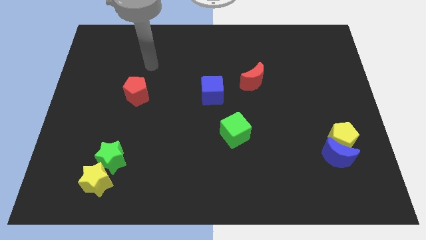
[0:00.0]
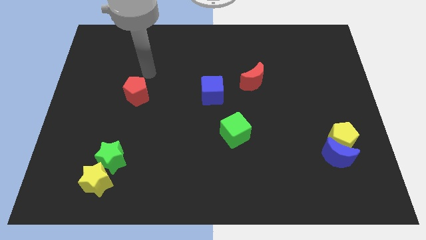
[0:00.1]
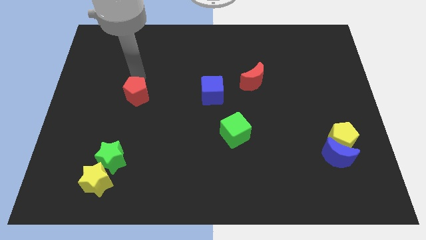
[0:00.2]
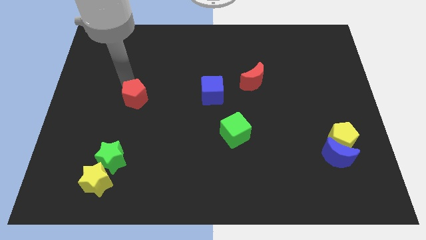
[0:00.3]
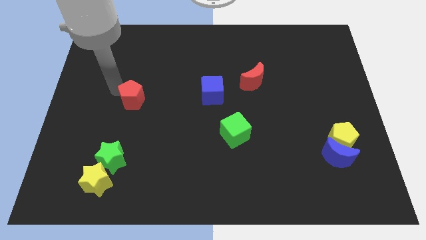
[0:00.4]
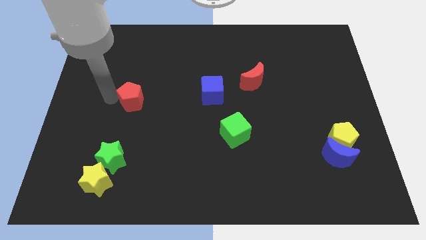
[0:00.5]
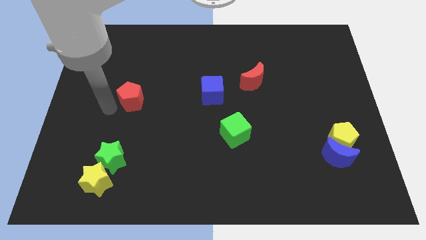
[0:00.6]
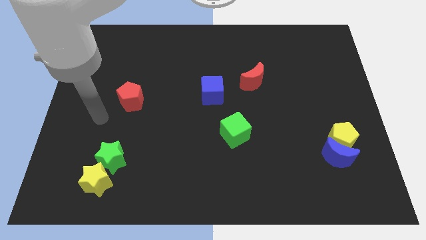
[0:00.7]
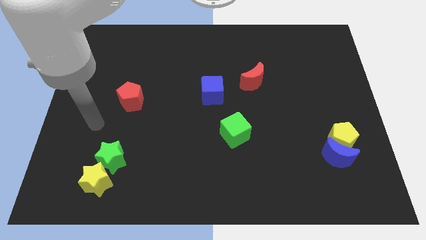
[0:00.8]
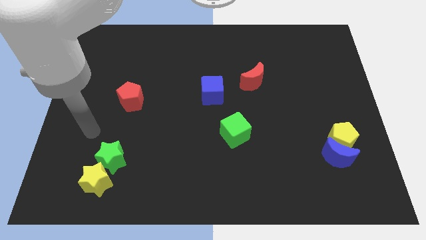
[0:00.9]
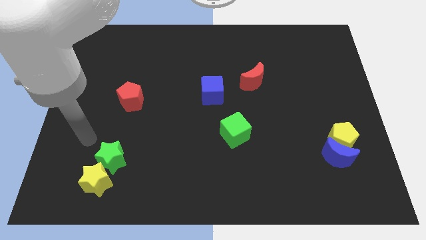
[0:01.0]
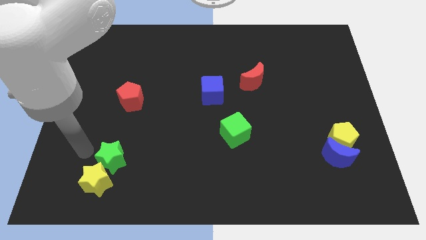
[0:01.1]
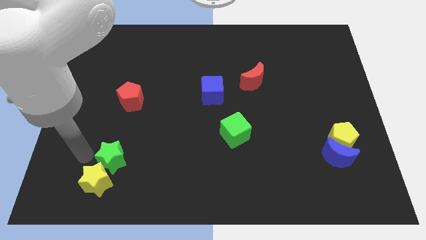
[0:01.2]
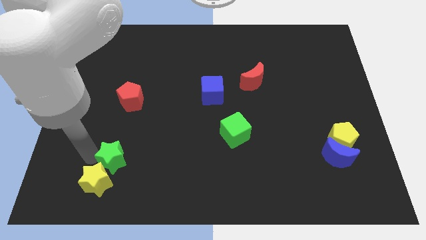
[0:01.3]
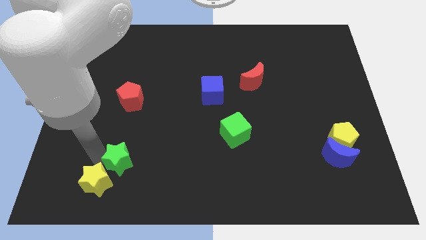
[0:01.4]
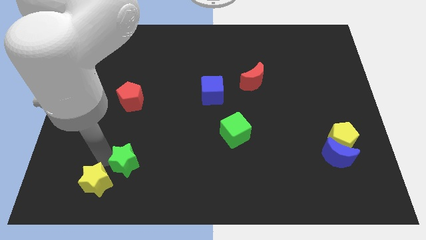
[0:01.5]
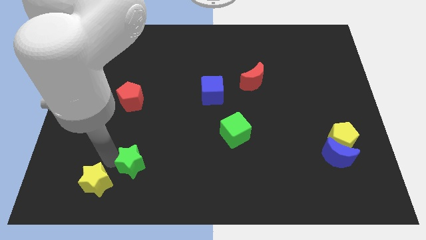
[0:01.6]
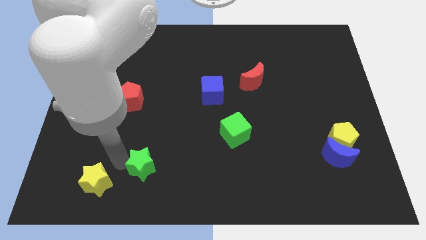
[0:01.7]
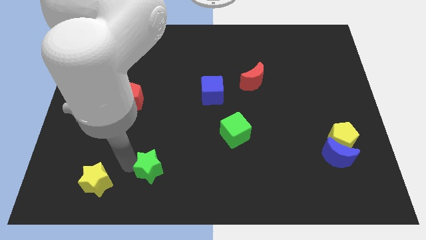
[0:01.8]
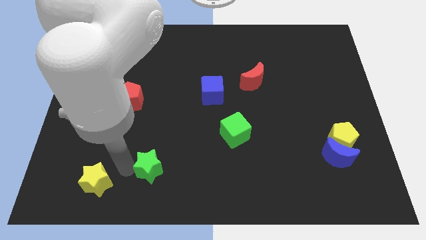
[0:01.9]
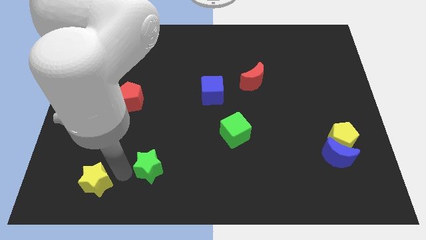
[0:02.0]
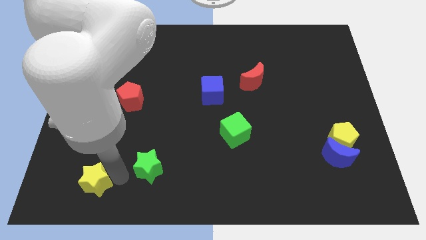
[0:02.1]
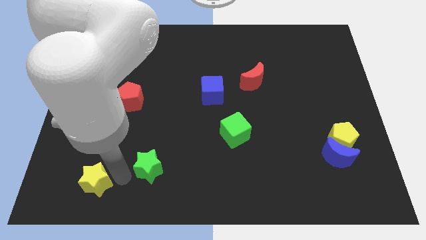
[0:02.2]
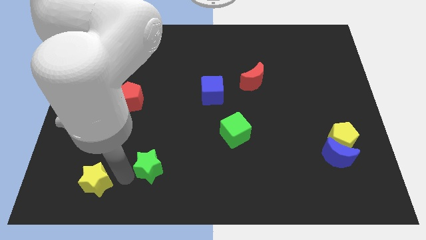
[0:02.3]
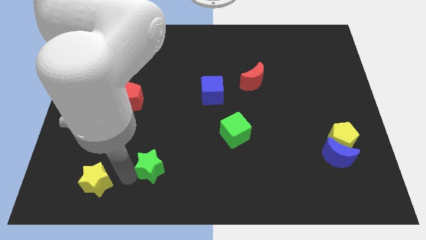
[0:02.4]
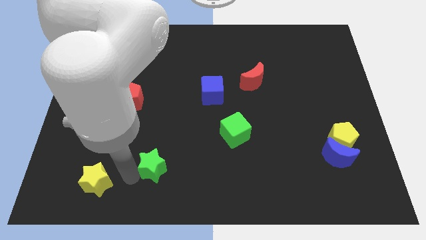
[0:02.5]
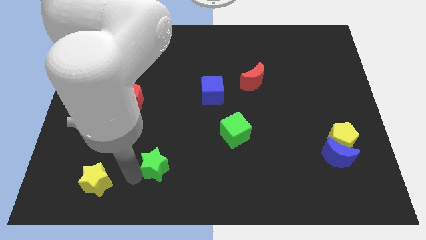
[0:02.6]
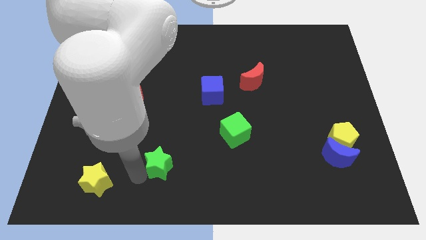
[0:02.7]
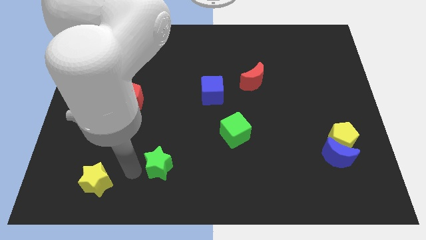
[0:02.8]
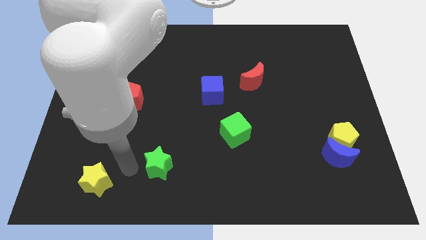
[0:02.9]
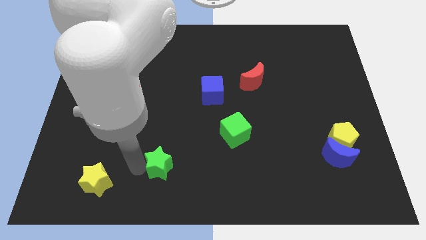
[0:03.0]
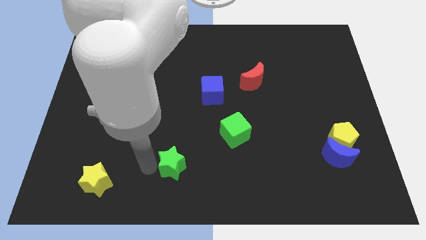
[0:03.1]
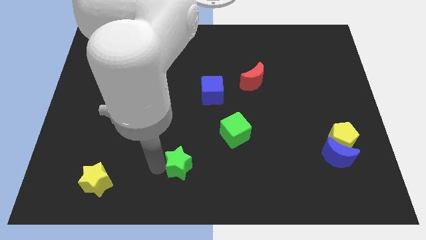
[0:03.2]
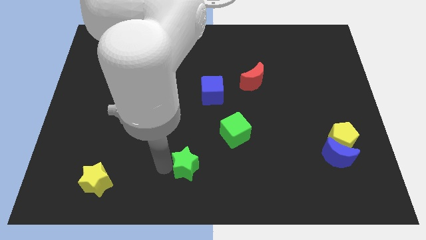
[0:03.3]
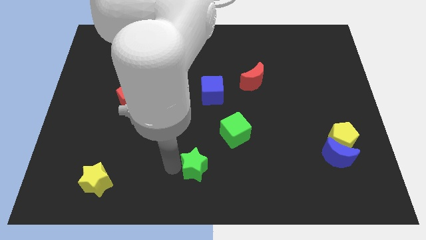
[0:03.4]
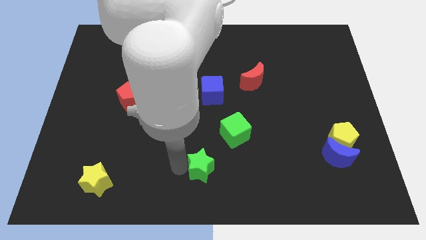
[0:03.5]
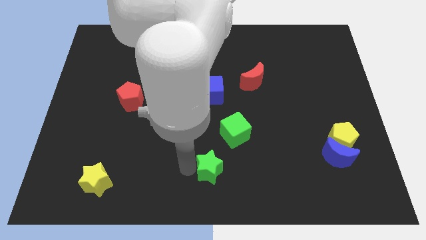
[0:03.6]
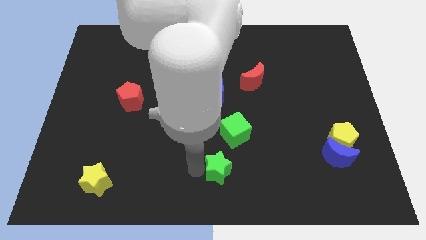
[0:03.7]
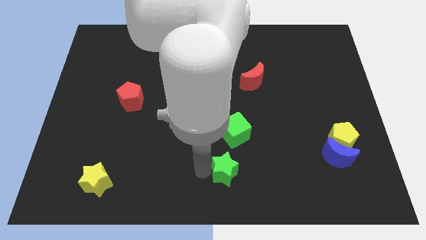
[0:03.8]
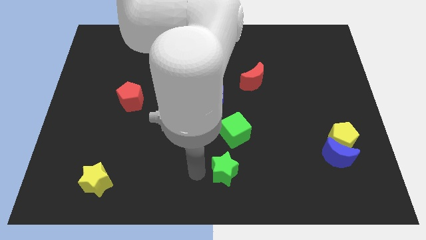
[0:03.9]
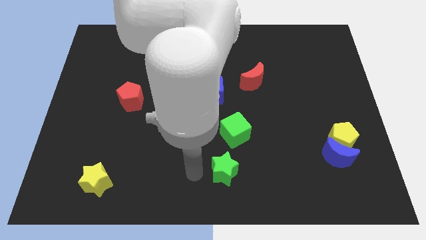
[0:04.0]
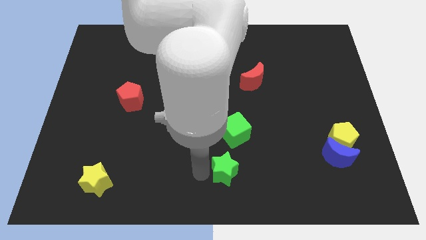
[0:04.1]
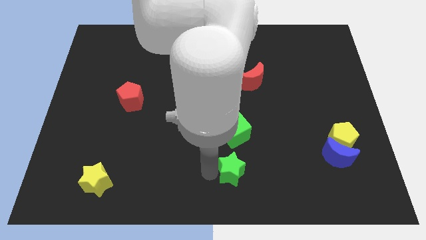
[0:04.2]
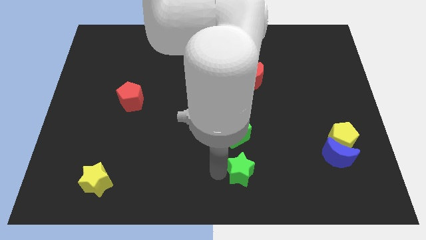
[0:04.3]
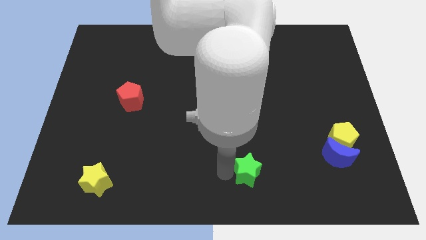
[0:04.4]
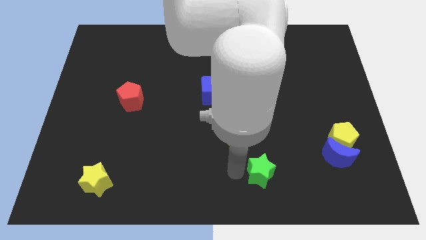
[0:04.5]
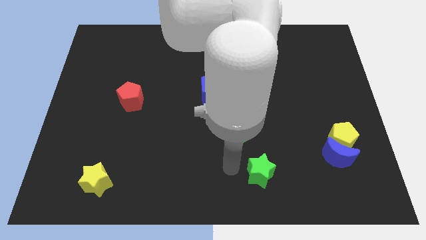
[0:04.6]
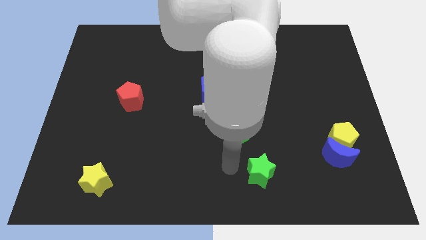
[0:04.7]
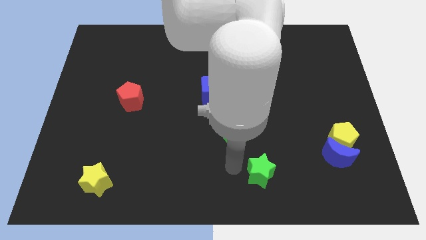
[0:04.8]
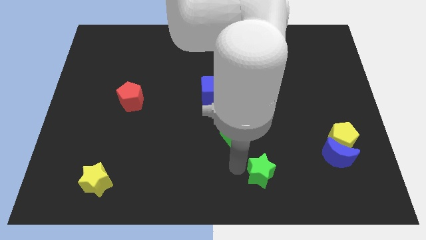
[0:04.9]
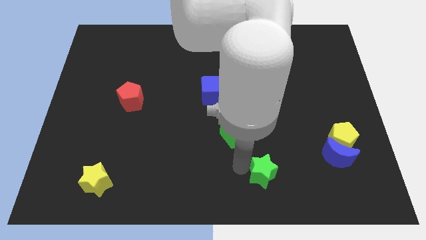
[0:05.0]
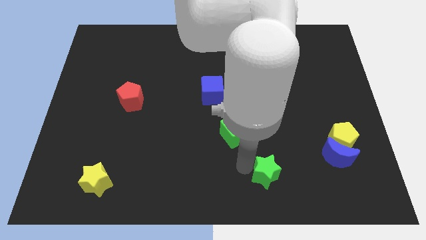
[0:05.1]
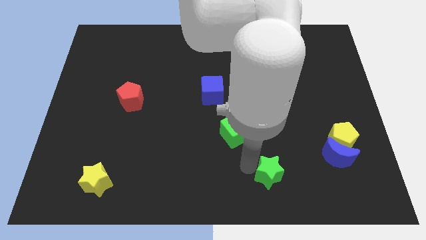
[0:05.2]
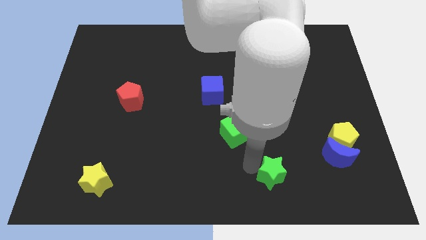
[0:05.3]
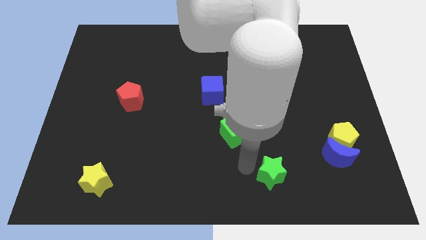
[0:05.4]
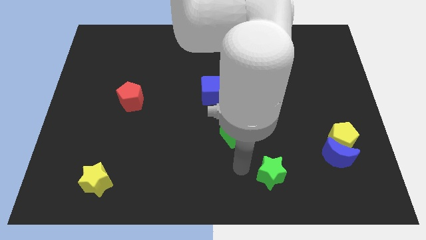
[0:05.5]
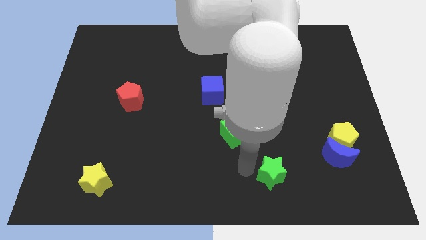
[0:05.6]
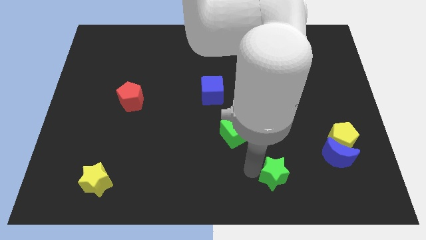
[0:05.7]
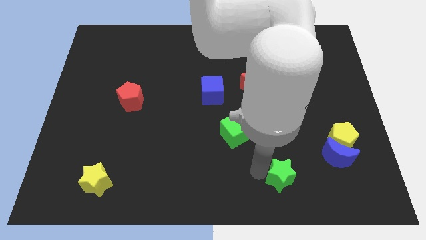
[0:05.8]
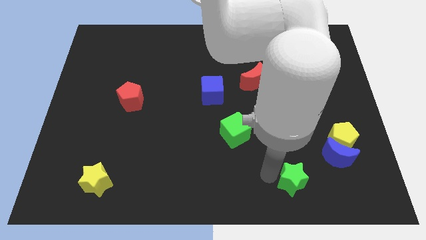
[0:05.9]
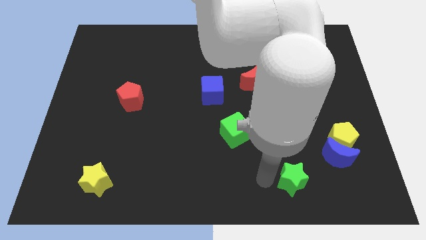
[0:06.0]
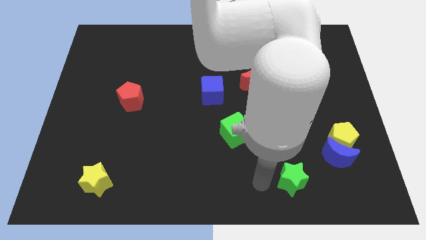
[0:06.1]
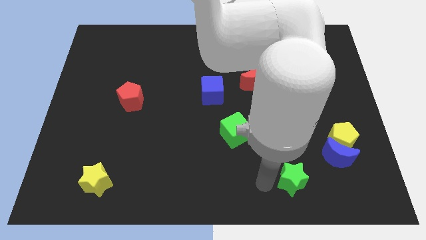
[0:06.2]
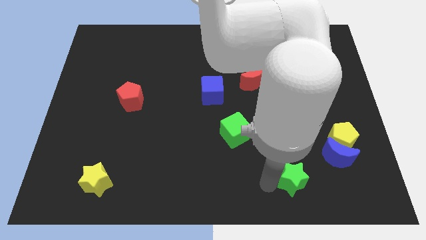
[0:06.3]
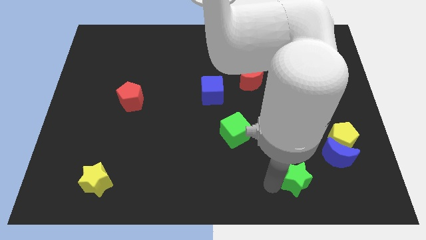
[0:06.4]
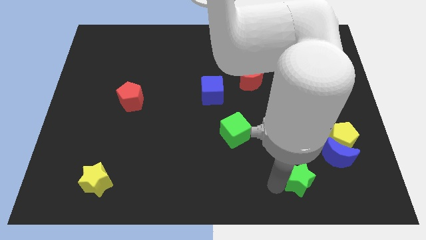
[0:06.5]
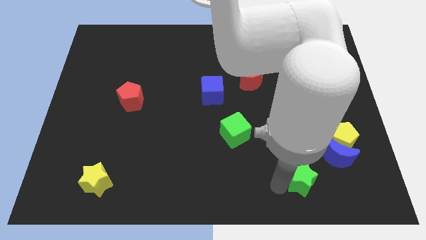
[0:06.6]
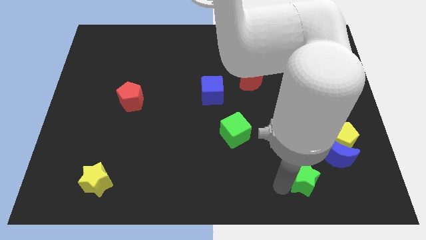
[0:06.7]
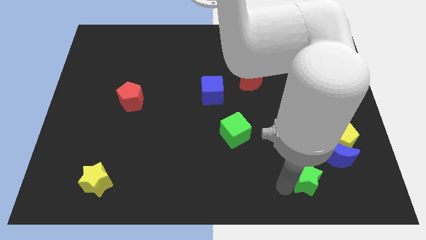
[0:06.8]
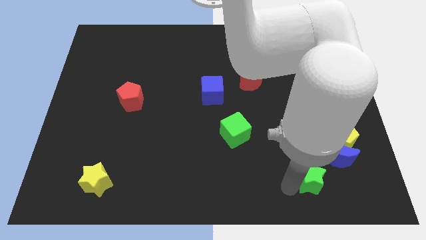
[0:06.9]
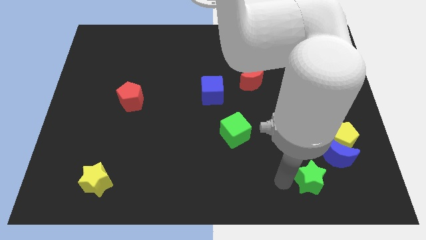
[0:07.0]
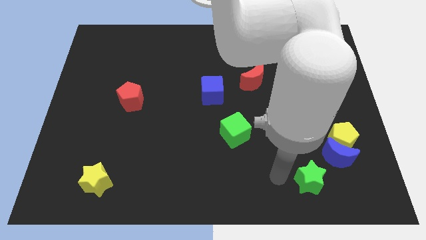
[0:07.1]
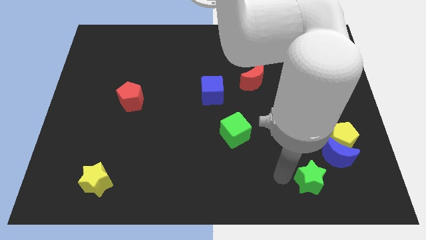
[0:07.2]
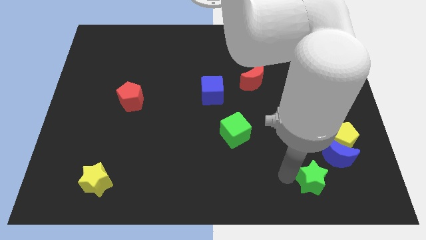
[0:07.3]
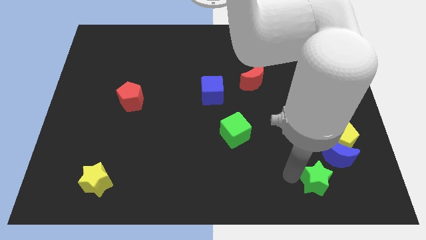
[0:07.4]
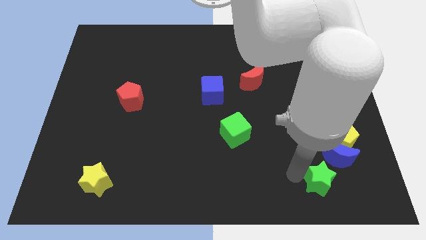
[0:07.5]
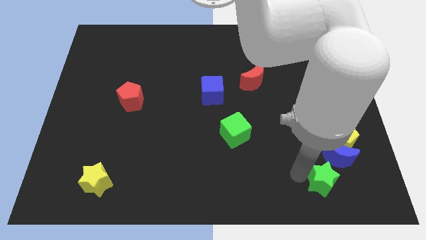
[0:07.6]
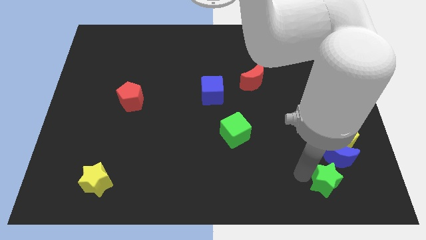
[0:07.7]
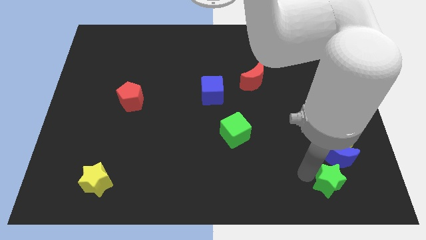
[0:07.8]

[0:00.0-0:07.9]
push the green star below the yellow pentagon
